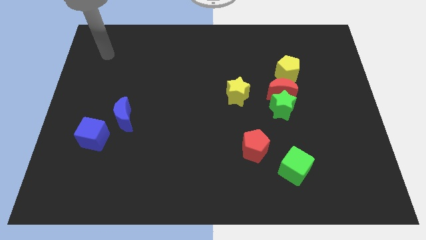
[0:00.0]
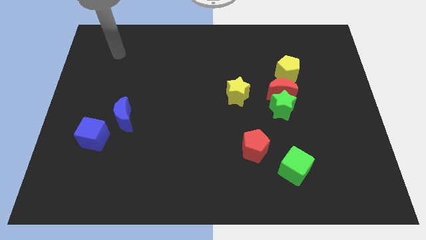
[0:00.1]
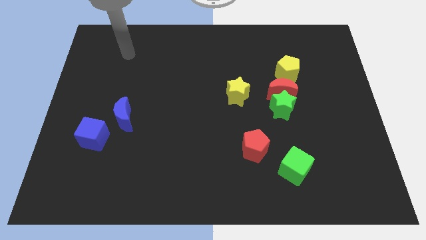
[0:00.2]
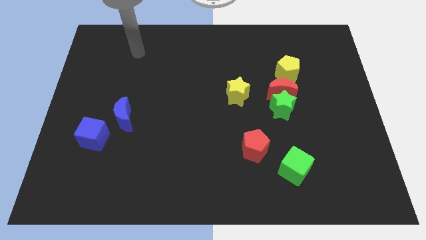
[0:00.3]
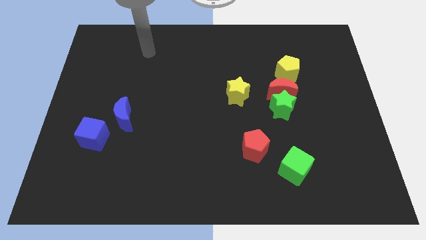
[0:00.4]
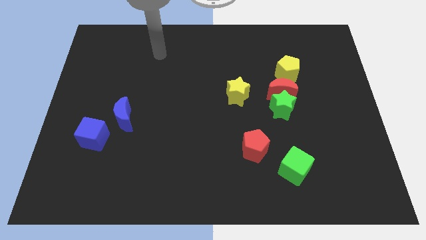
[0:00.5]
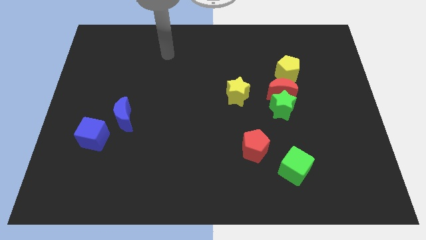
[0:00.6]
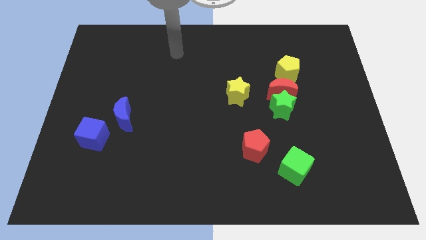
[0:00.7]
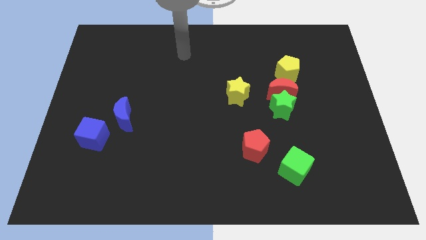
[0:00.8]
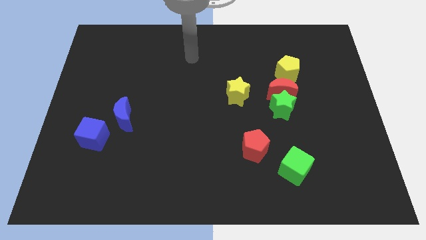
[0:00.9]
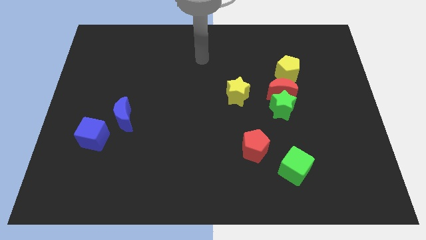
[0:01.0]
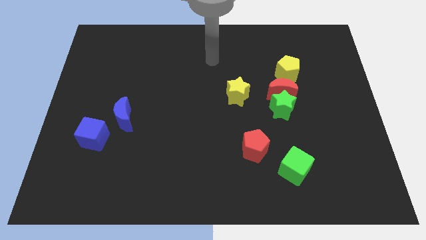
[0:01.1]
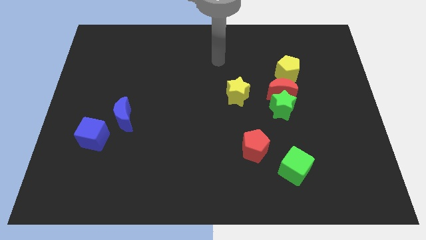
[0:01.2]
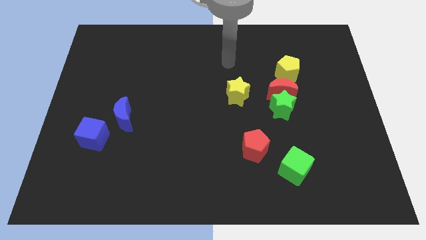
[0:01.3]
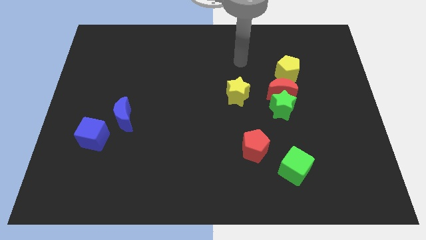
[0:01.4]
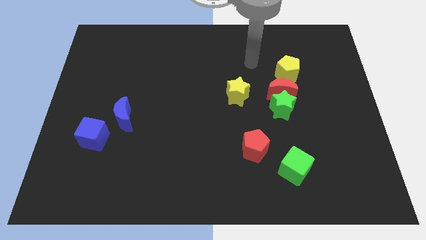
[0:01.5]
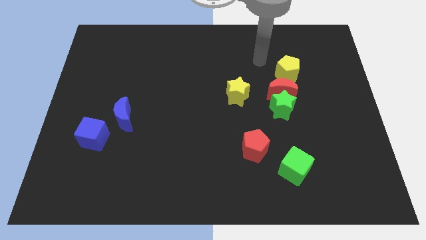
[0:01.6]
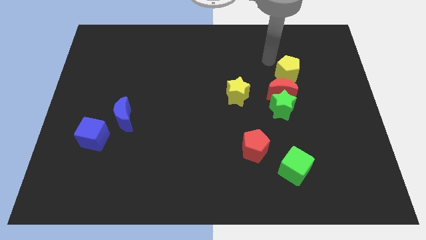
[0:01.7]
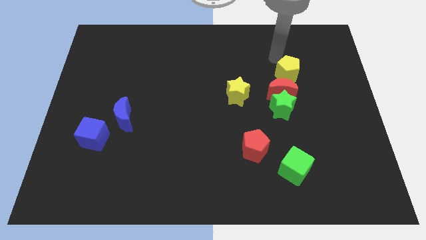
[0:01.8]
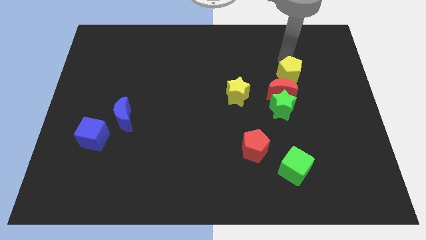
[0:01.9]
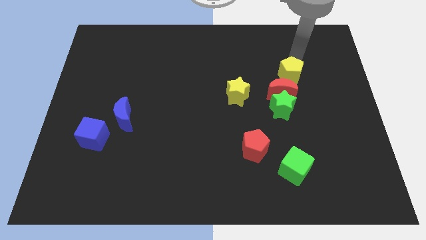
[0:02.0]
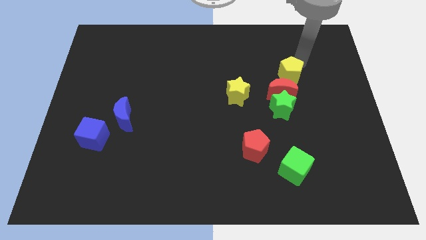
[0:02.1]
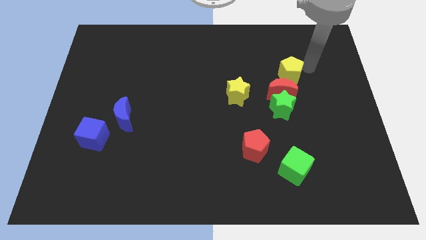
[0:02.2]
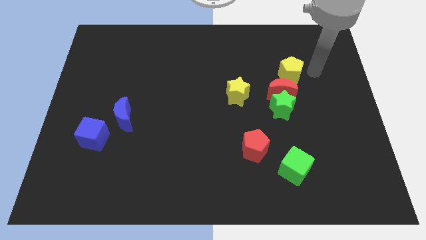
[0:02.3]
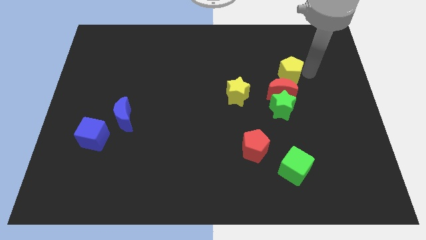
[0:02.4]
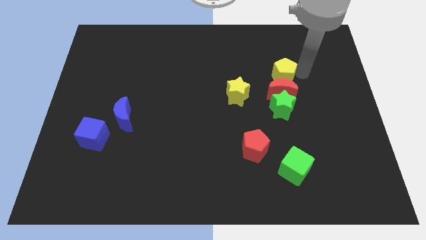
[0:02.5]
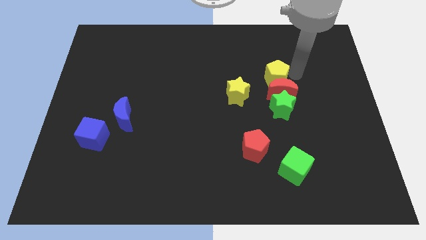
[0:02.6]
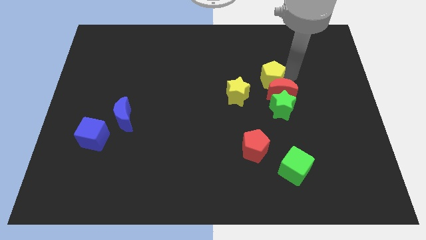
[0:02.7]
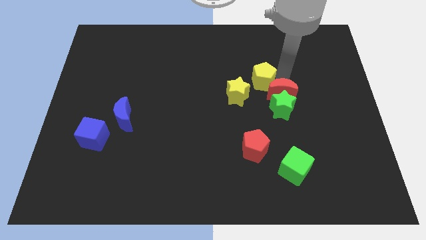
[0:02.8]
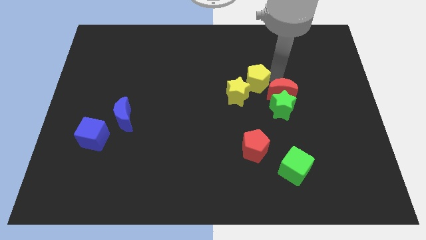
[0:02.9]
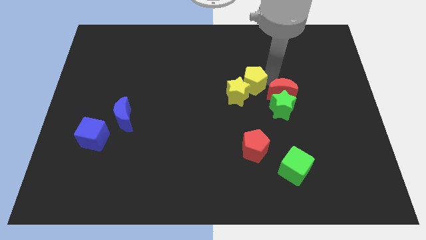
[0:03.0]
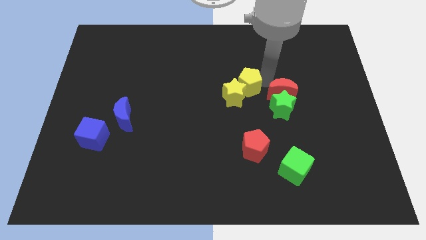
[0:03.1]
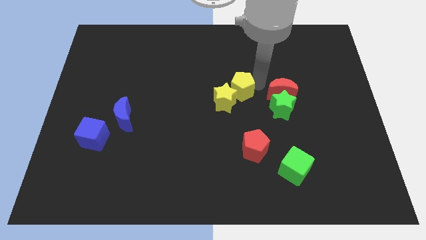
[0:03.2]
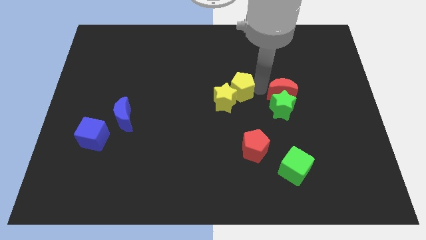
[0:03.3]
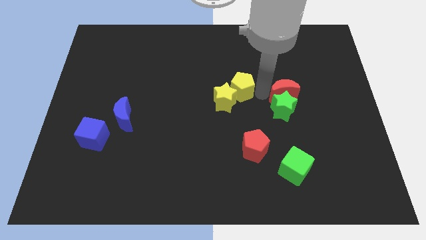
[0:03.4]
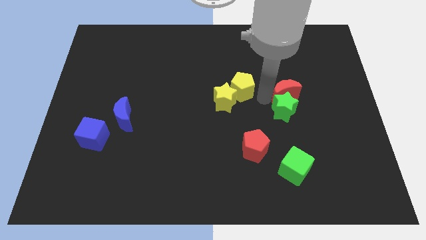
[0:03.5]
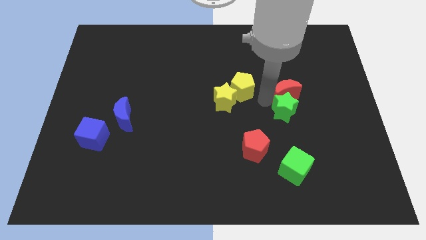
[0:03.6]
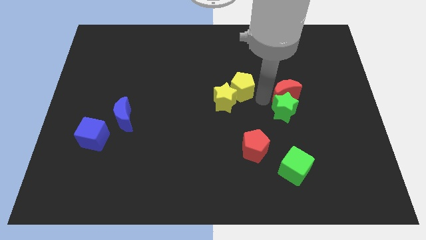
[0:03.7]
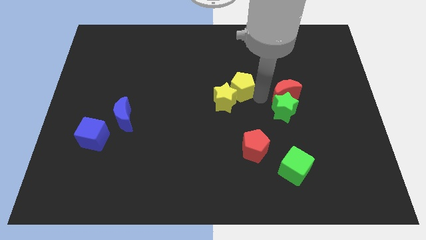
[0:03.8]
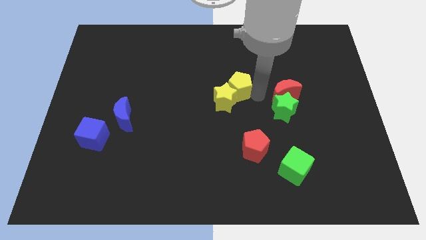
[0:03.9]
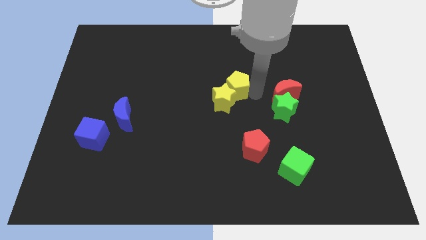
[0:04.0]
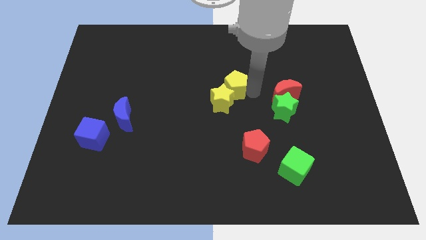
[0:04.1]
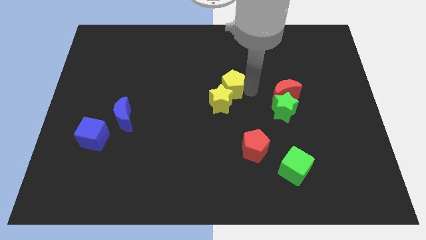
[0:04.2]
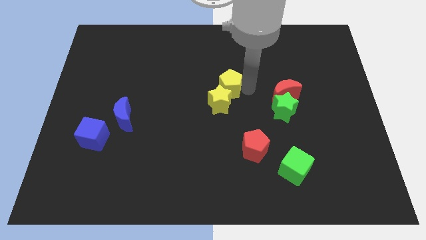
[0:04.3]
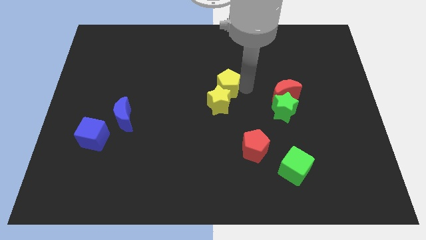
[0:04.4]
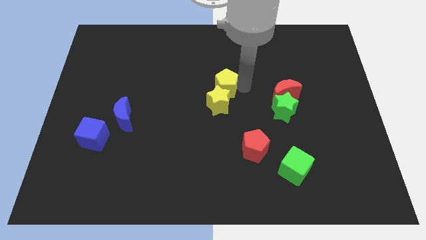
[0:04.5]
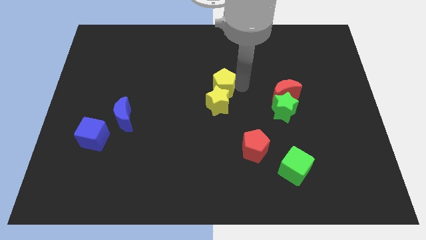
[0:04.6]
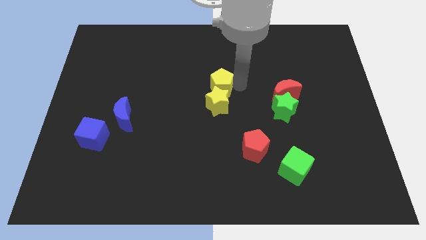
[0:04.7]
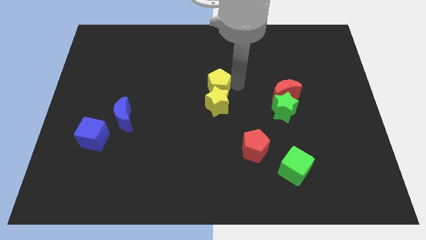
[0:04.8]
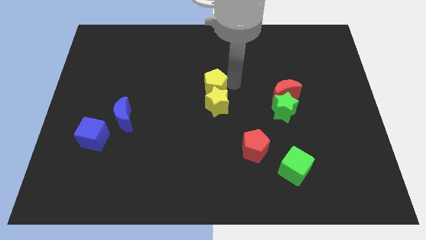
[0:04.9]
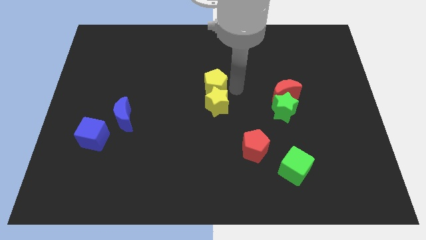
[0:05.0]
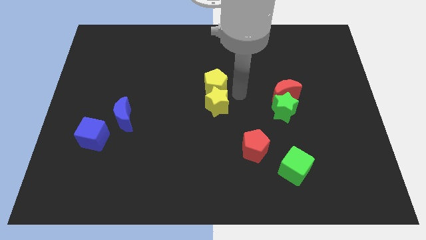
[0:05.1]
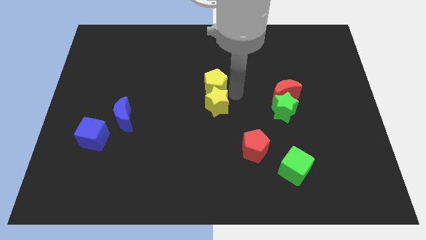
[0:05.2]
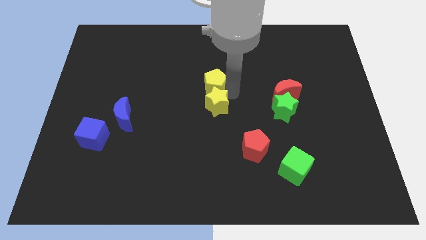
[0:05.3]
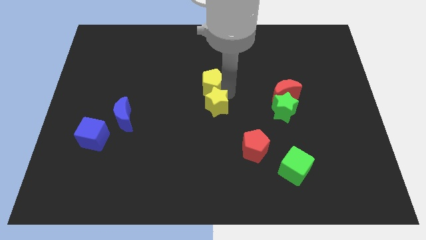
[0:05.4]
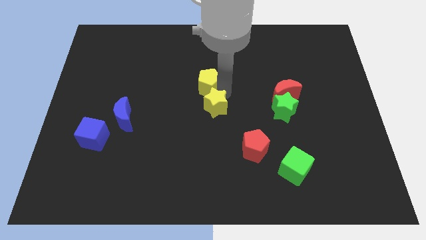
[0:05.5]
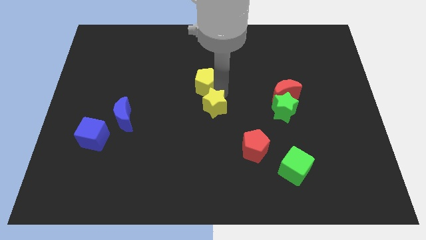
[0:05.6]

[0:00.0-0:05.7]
push the yellow pentagon left

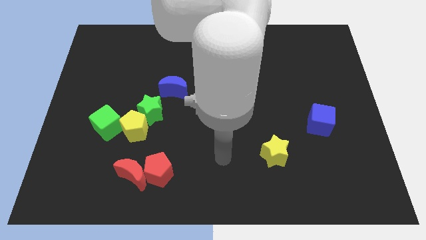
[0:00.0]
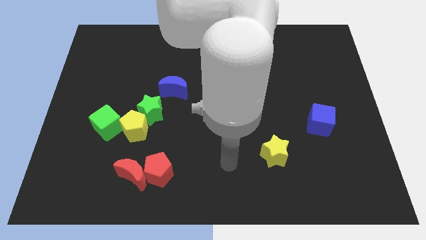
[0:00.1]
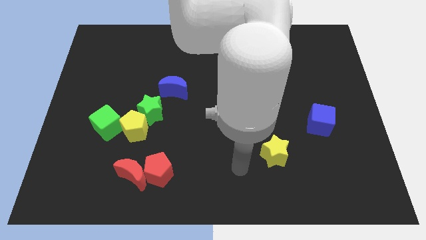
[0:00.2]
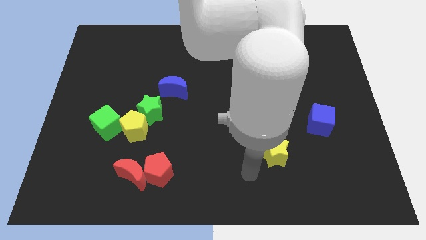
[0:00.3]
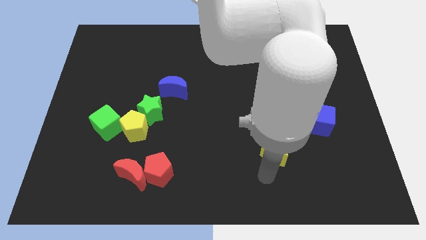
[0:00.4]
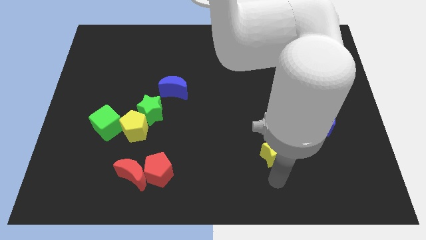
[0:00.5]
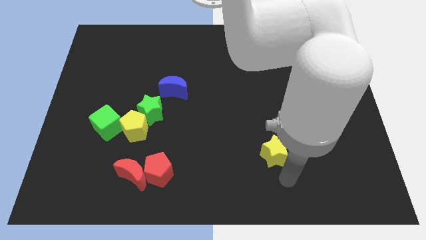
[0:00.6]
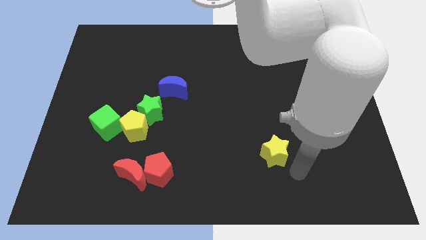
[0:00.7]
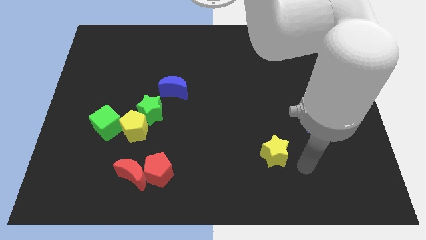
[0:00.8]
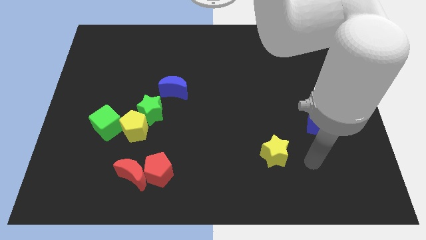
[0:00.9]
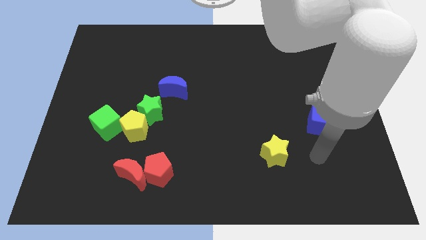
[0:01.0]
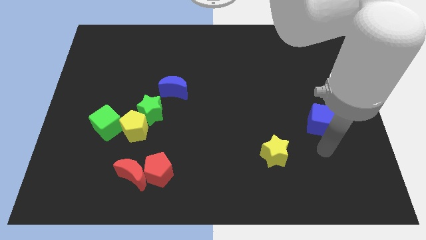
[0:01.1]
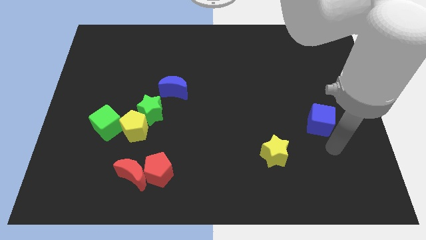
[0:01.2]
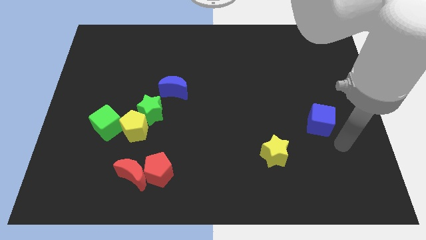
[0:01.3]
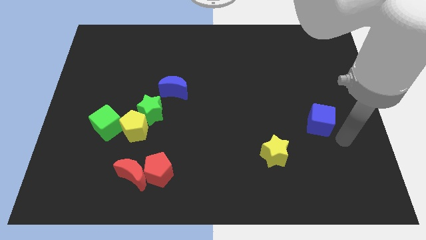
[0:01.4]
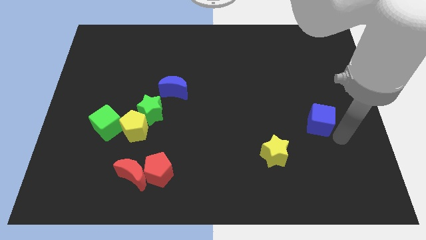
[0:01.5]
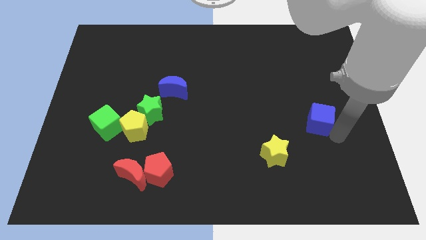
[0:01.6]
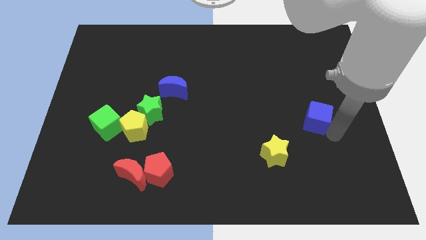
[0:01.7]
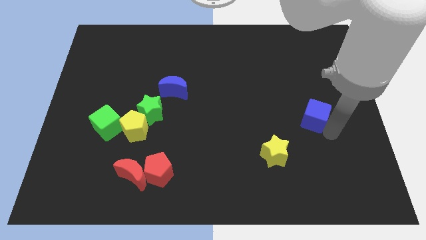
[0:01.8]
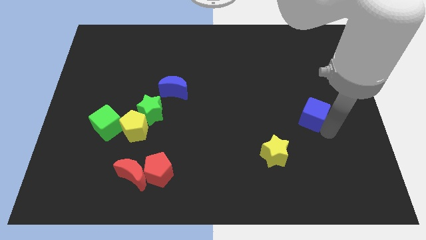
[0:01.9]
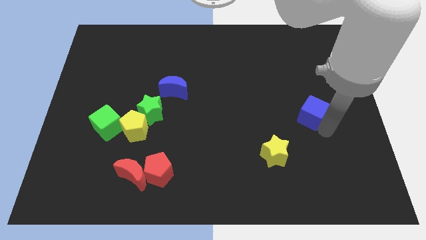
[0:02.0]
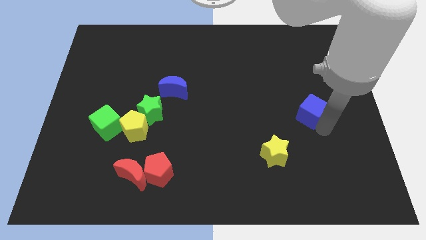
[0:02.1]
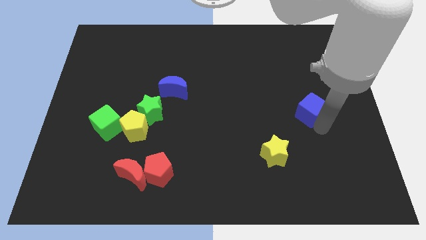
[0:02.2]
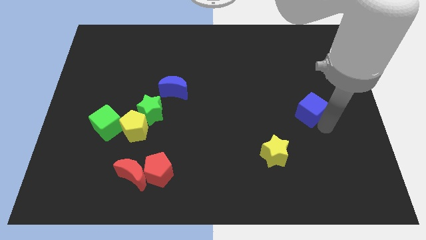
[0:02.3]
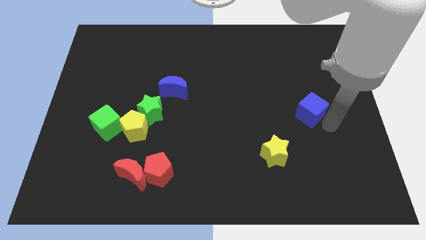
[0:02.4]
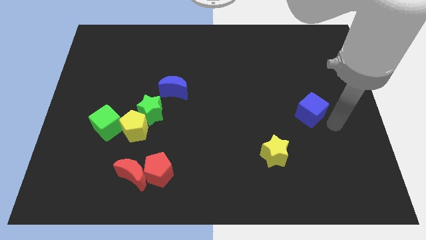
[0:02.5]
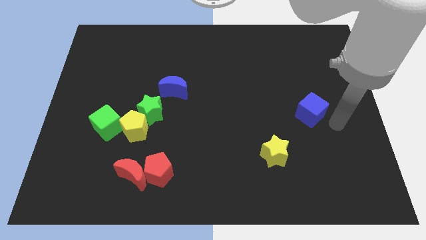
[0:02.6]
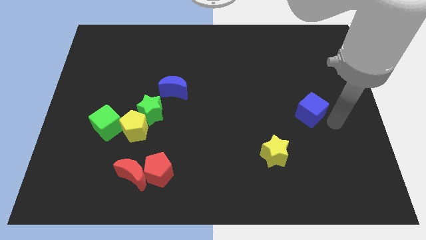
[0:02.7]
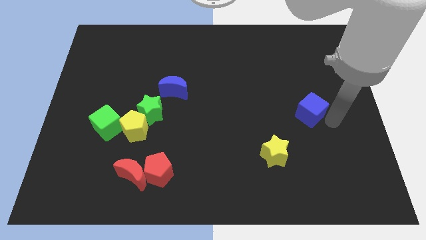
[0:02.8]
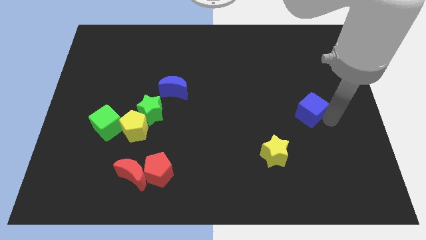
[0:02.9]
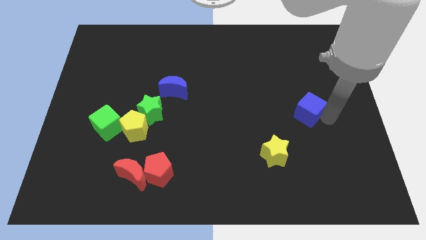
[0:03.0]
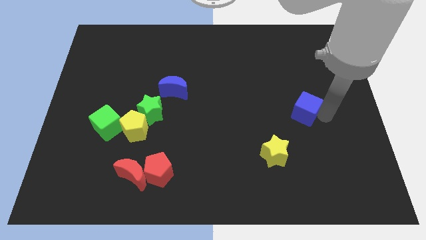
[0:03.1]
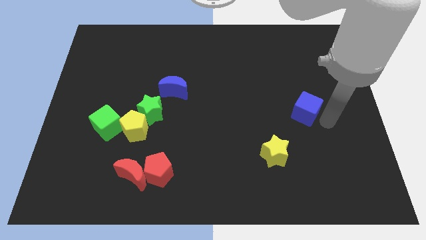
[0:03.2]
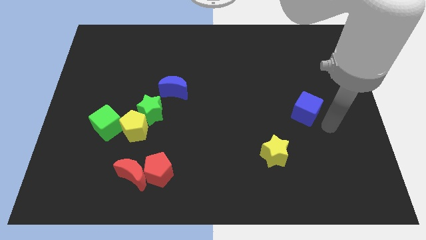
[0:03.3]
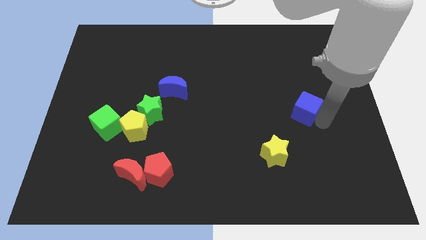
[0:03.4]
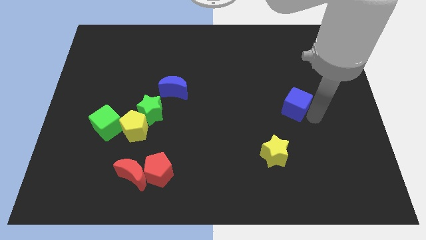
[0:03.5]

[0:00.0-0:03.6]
slide the blue cube up and then left a bit
